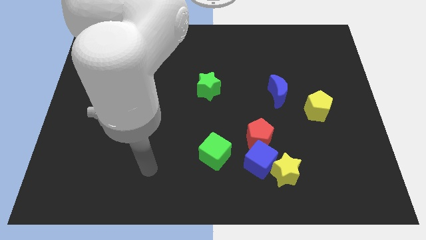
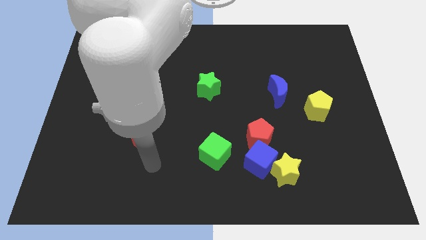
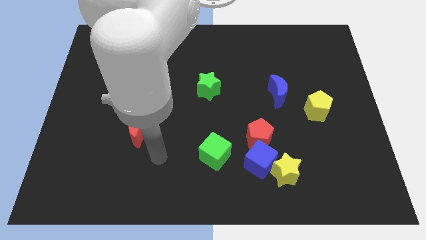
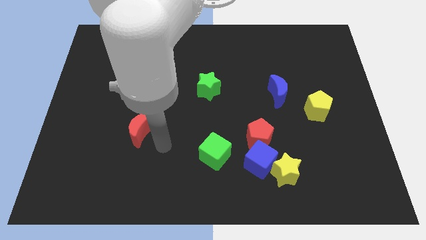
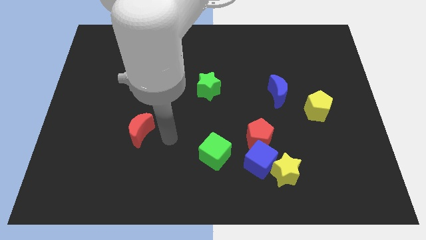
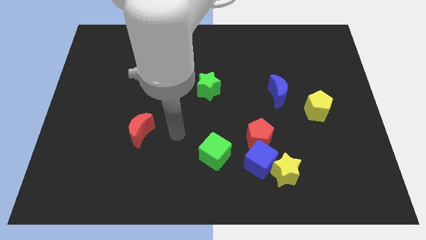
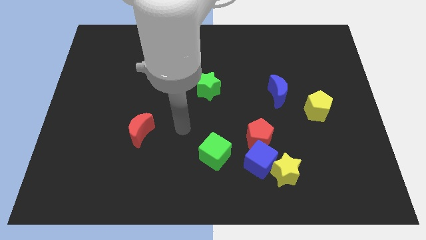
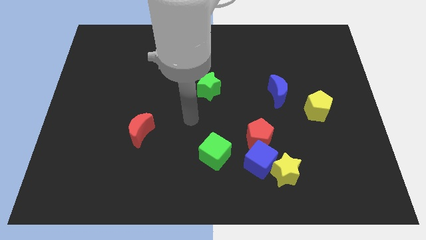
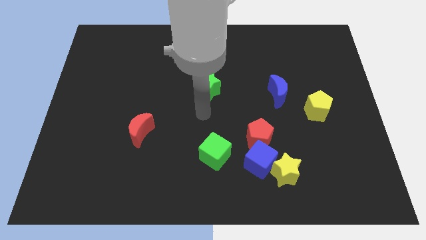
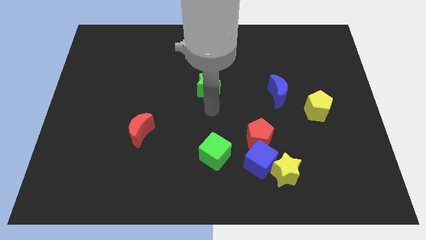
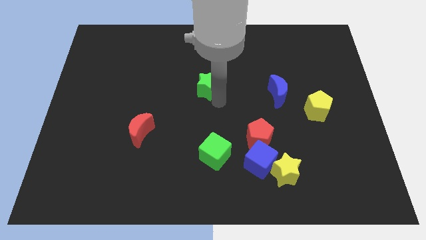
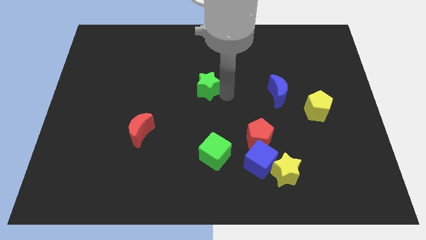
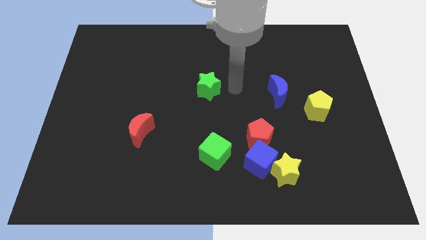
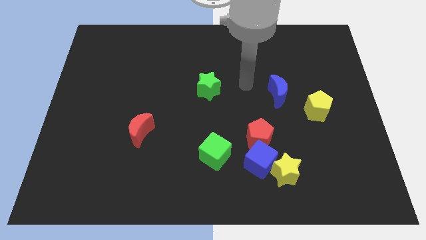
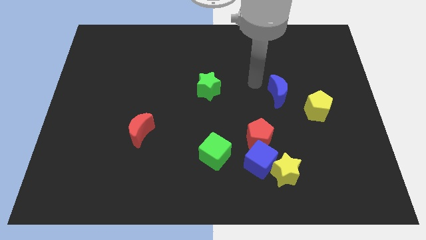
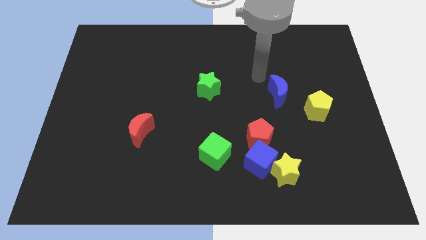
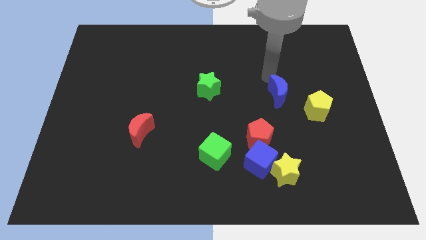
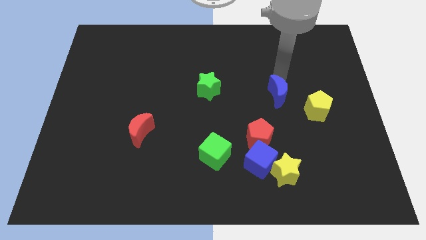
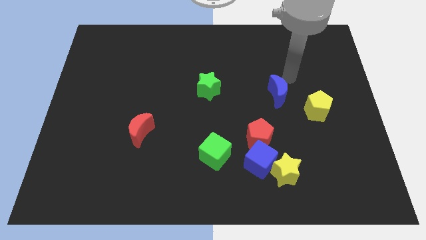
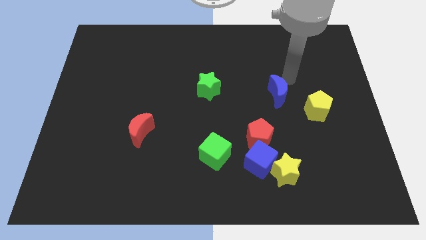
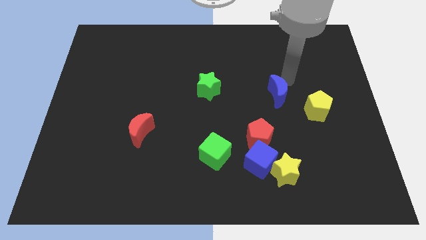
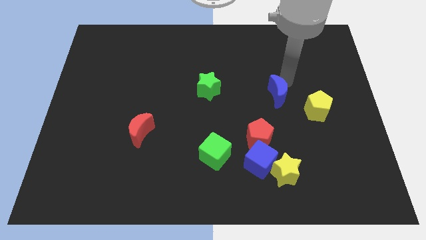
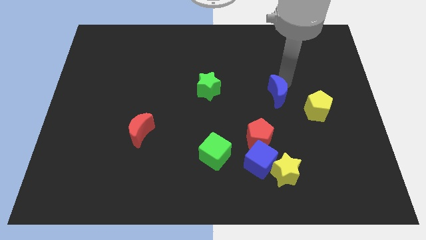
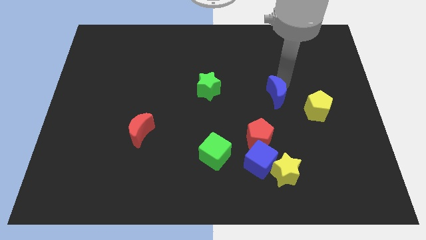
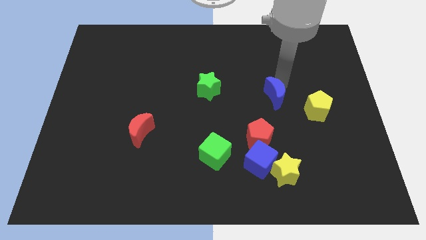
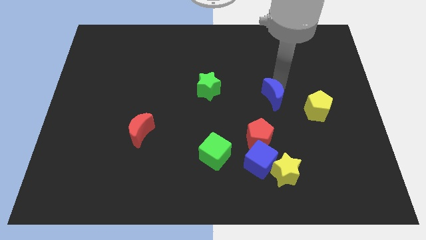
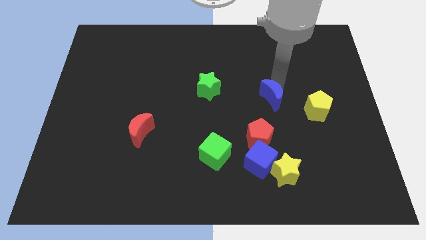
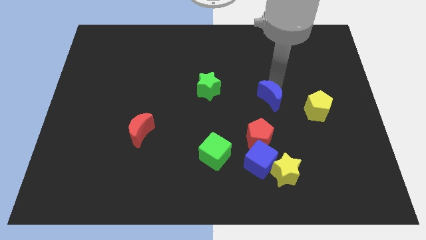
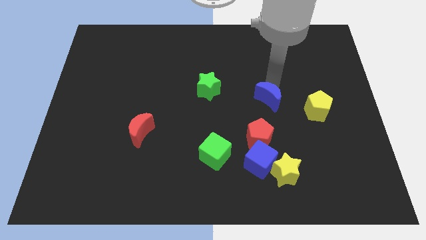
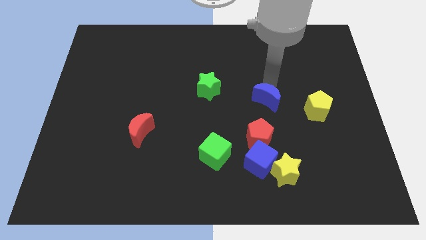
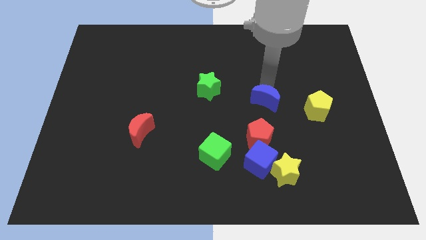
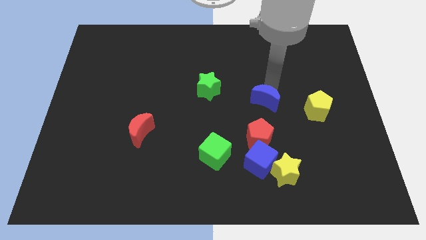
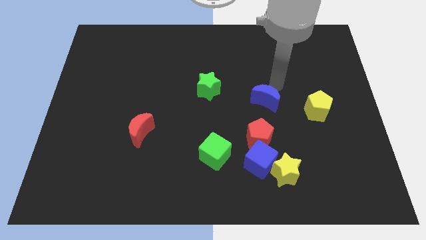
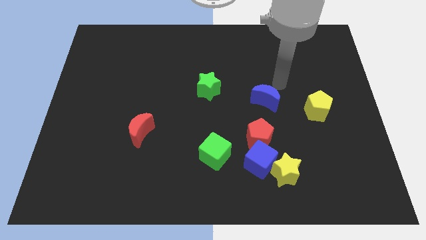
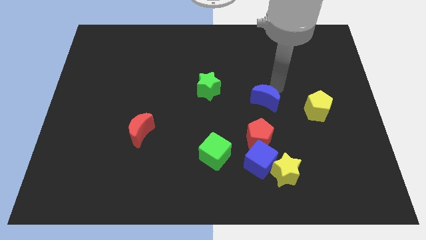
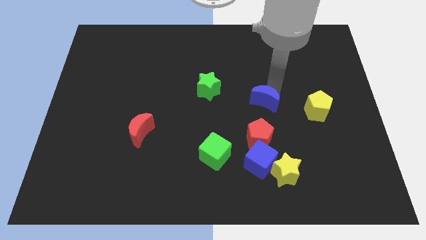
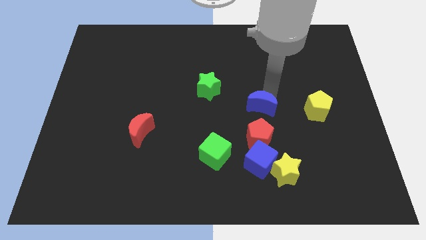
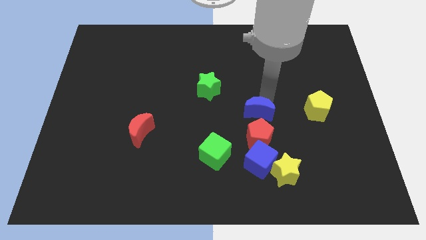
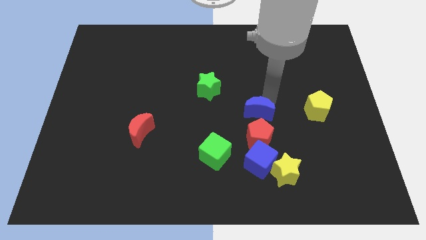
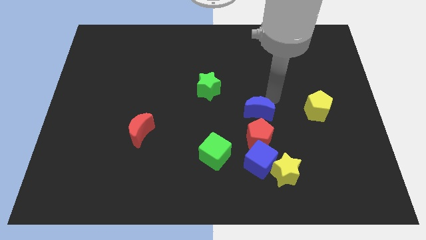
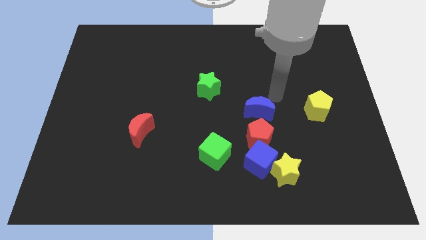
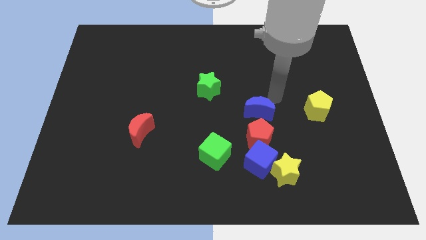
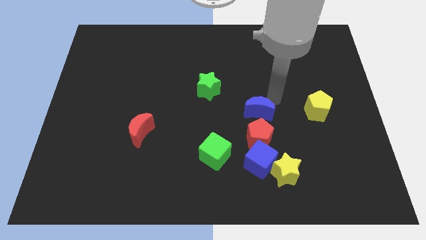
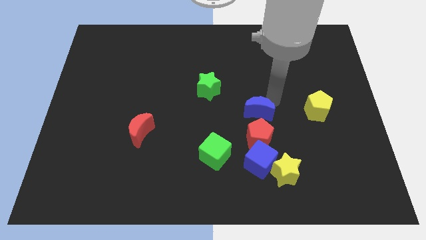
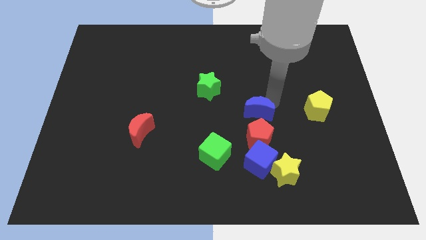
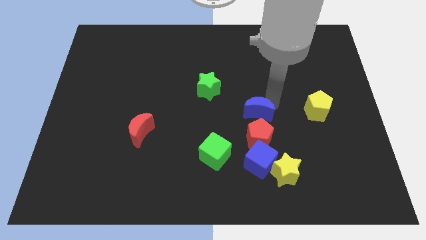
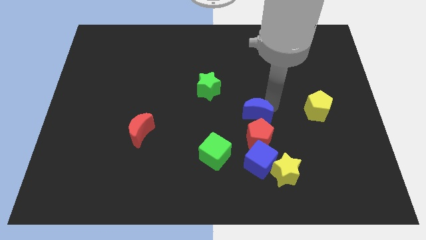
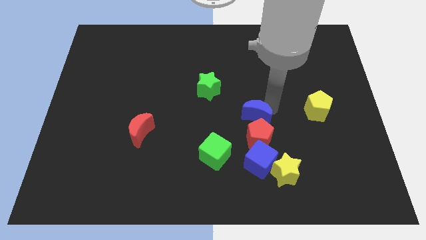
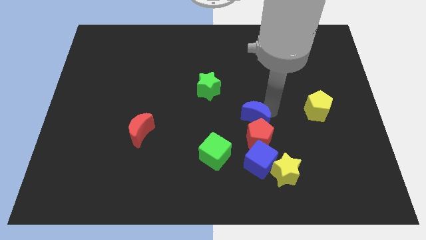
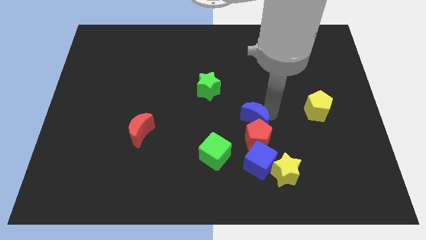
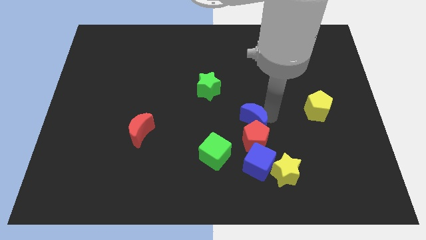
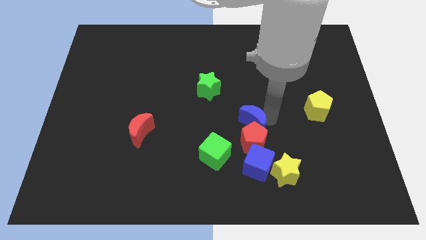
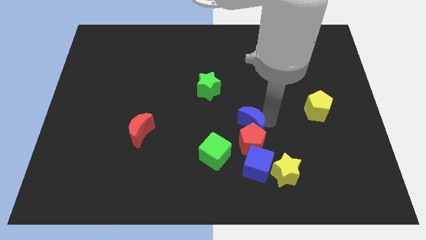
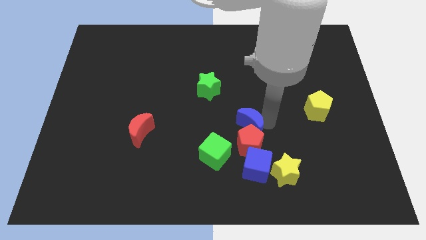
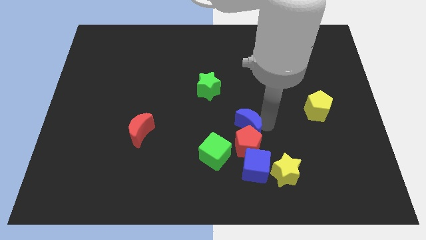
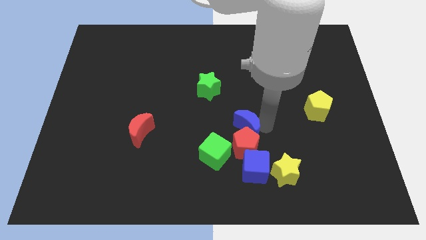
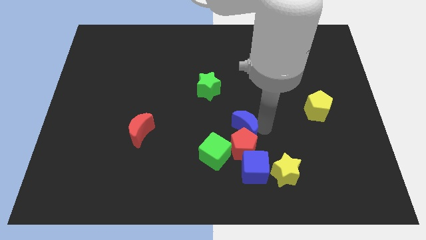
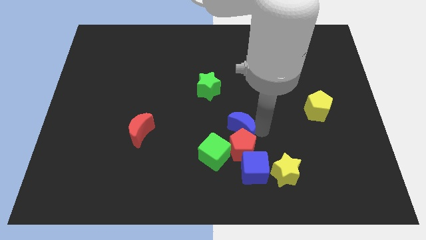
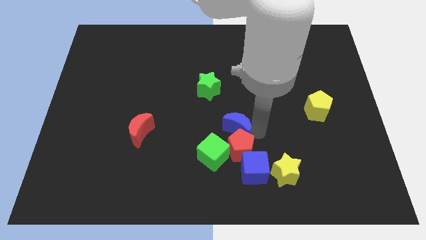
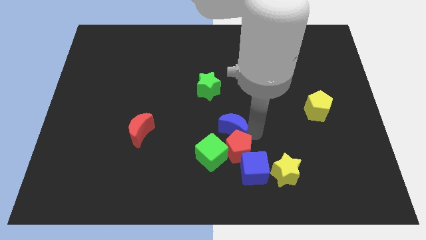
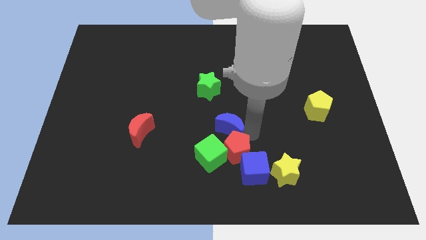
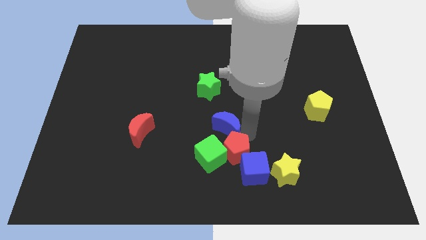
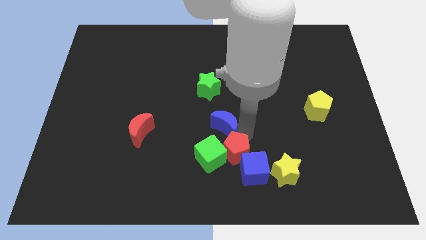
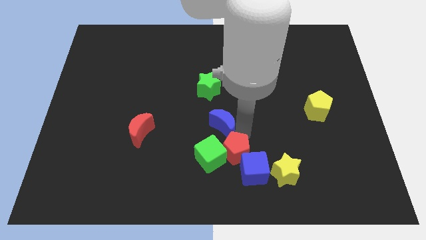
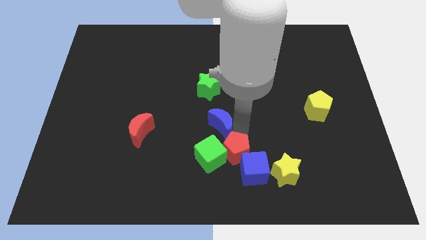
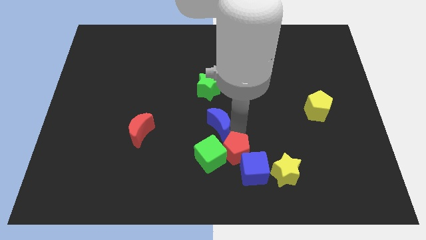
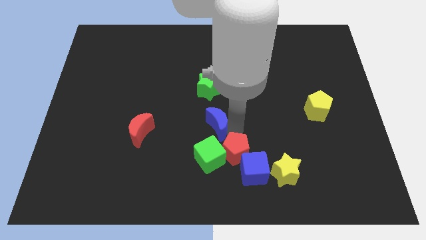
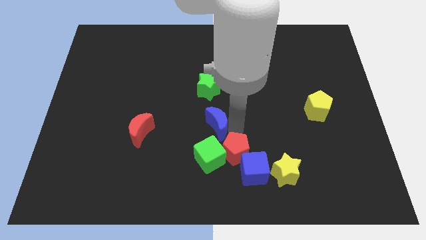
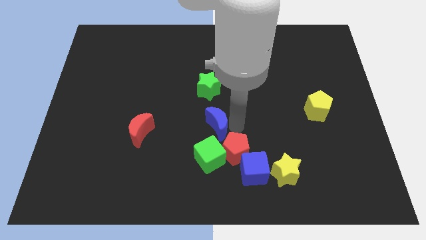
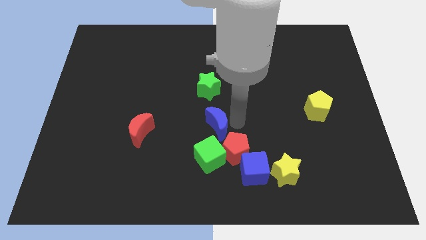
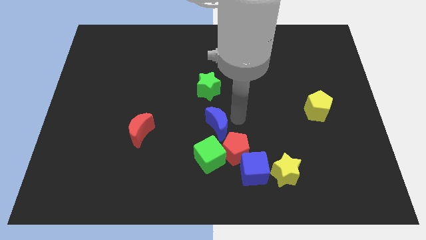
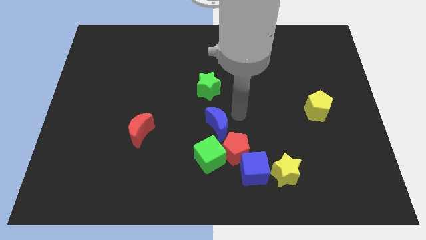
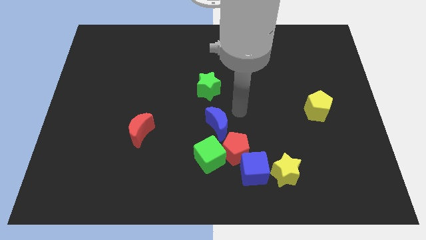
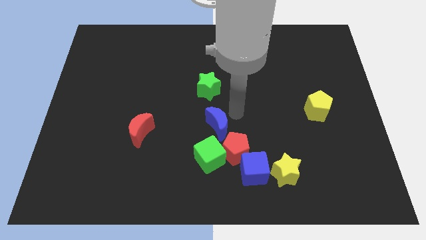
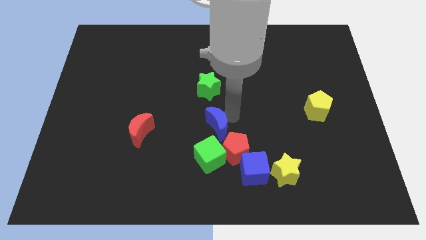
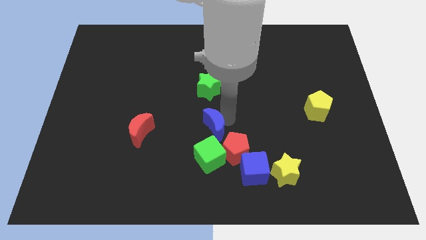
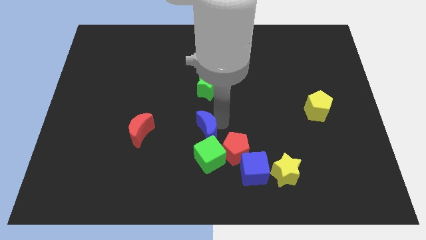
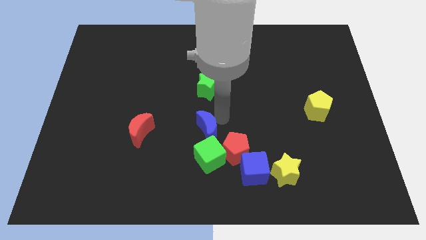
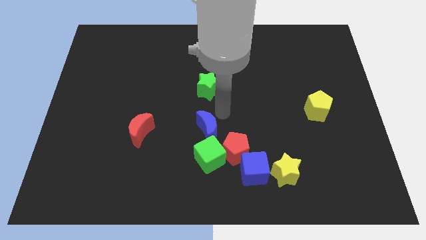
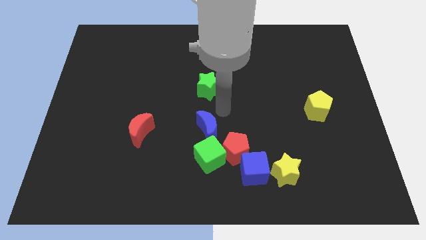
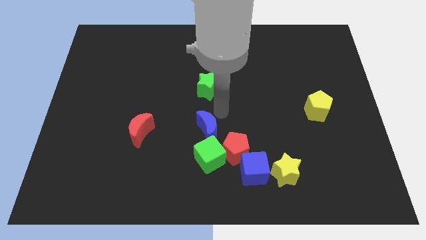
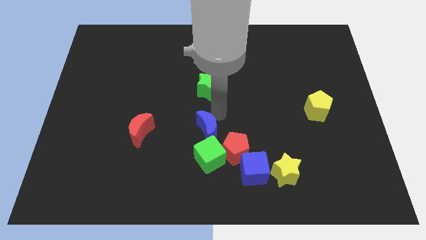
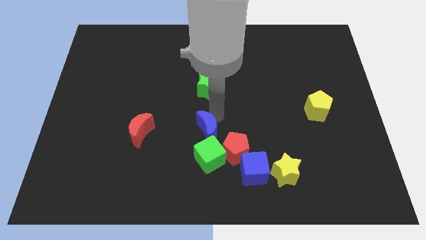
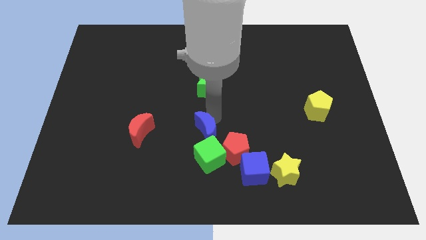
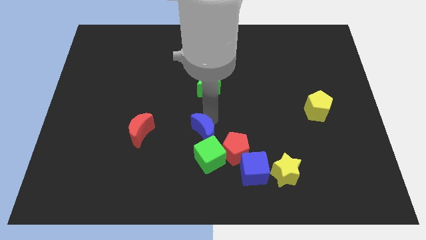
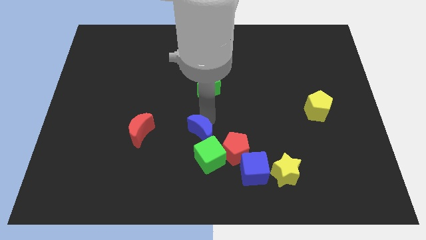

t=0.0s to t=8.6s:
slide the blue moon diagonally down and to the left
